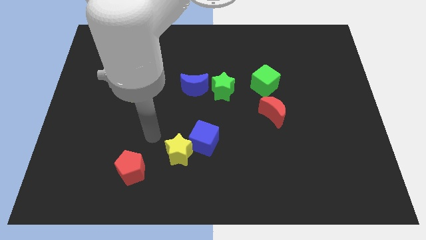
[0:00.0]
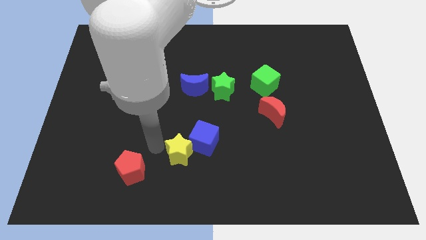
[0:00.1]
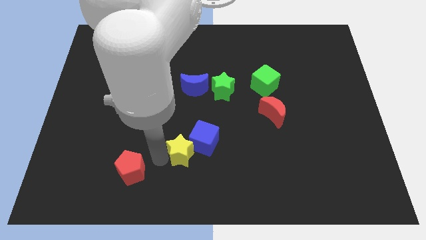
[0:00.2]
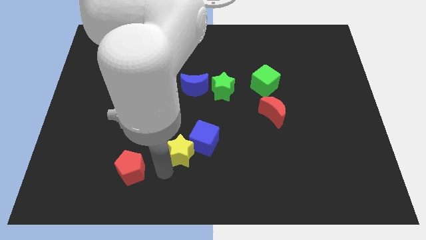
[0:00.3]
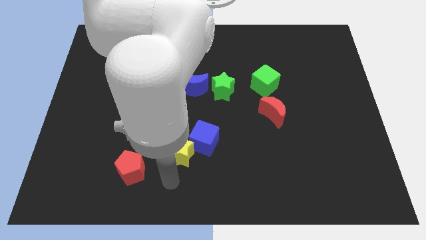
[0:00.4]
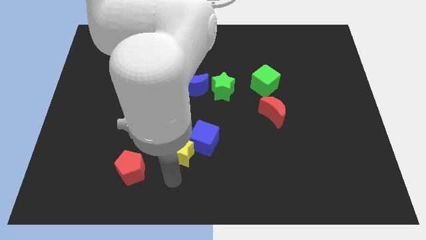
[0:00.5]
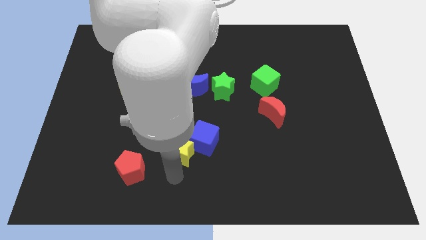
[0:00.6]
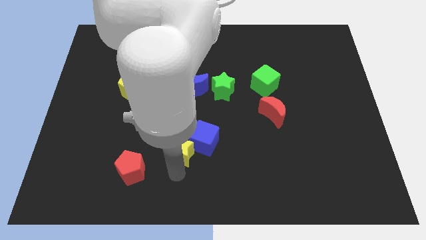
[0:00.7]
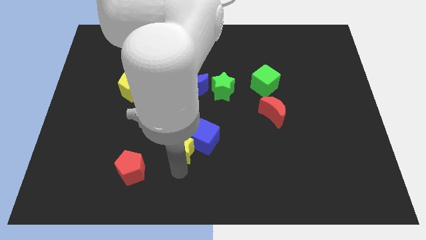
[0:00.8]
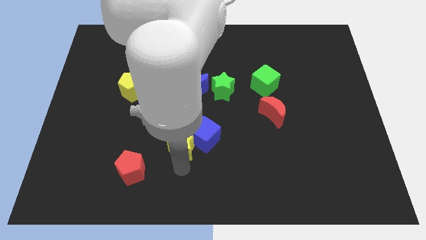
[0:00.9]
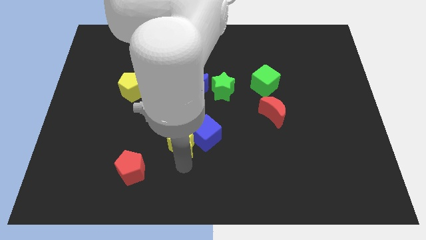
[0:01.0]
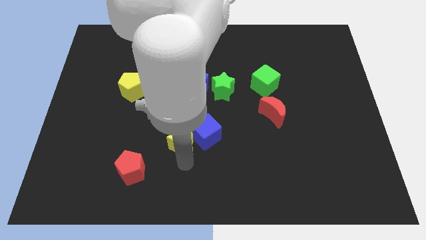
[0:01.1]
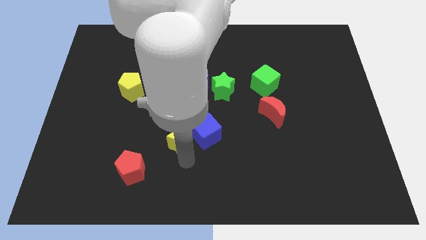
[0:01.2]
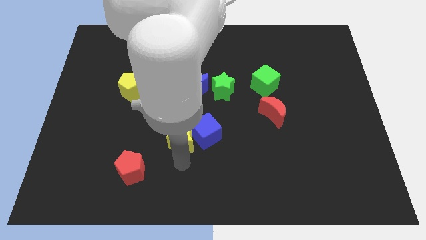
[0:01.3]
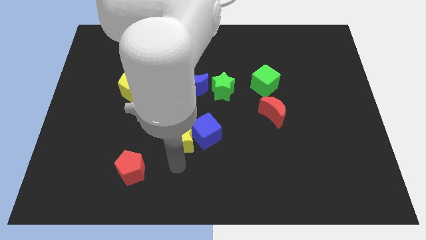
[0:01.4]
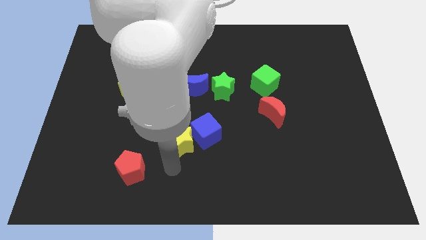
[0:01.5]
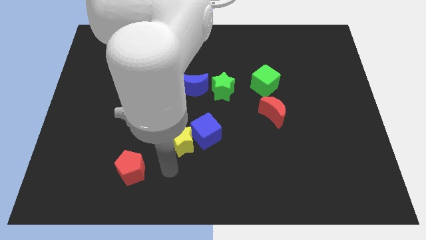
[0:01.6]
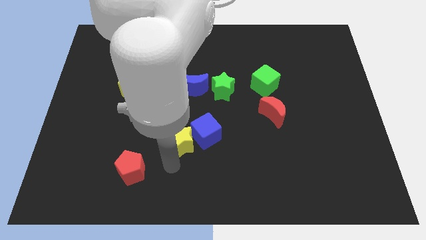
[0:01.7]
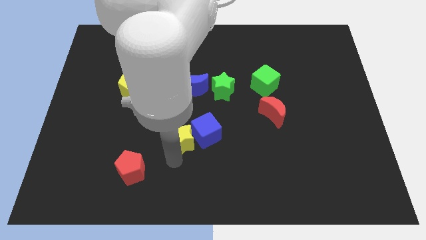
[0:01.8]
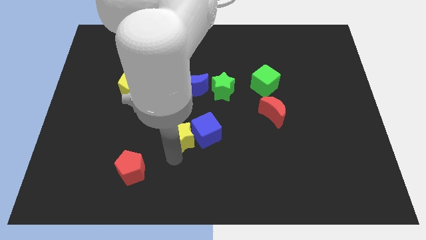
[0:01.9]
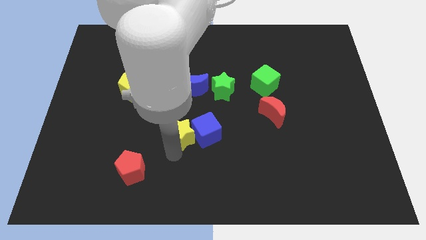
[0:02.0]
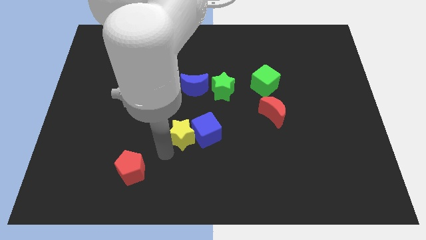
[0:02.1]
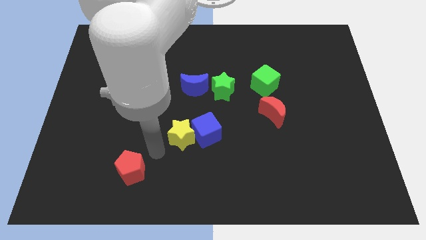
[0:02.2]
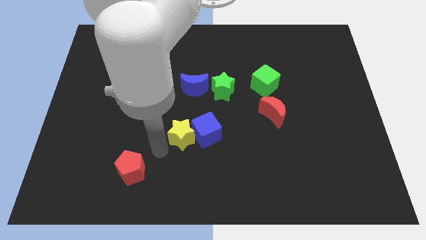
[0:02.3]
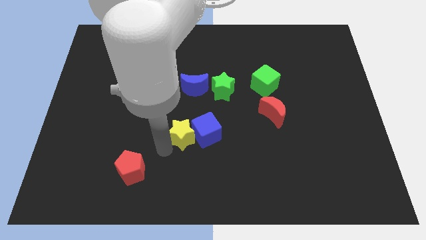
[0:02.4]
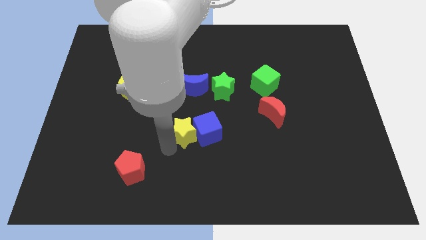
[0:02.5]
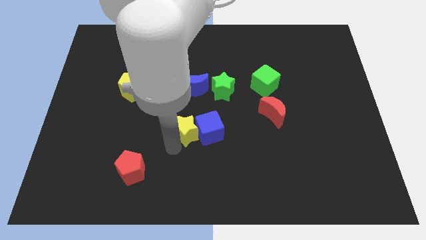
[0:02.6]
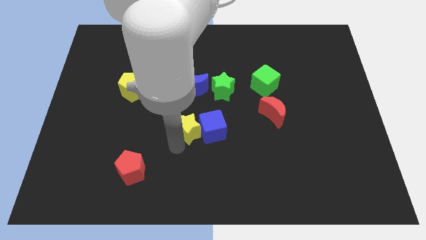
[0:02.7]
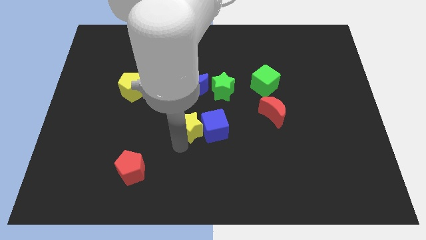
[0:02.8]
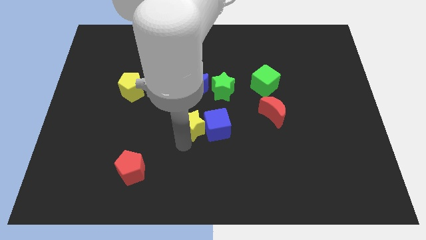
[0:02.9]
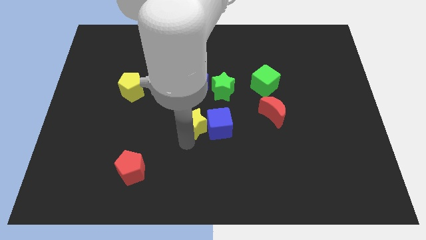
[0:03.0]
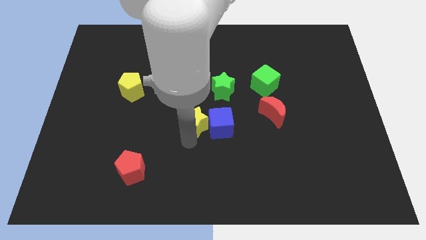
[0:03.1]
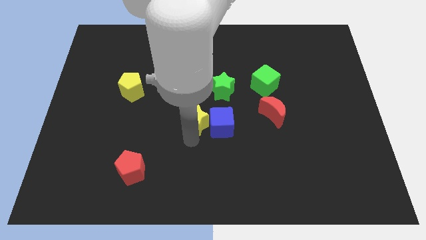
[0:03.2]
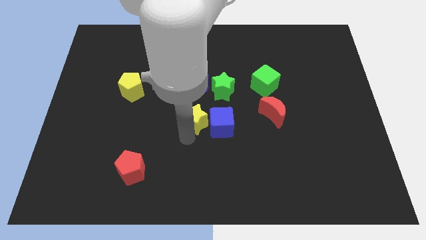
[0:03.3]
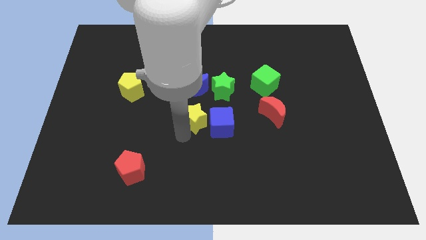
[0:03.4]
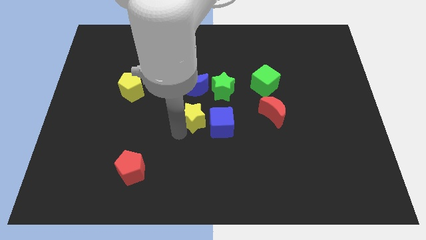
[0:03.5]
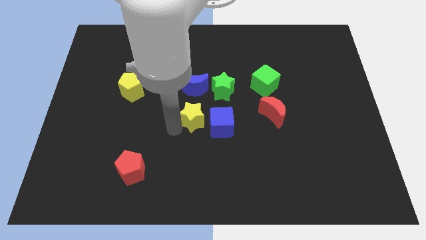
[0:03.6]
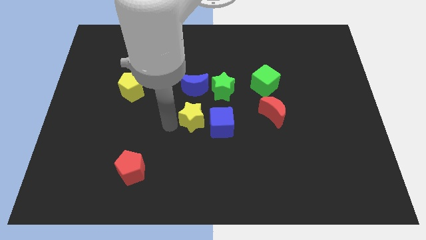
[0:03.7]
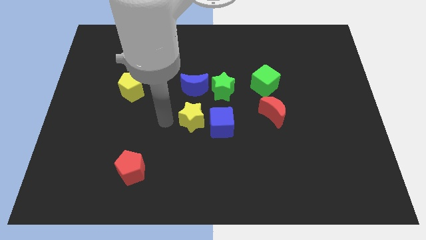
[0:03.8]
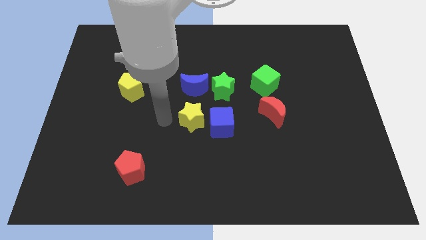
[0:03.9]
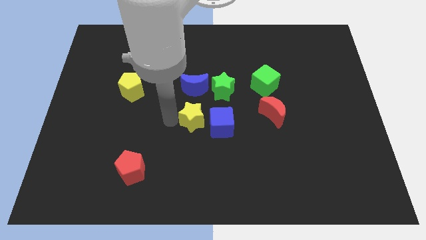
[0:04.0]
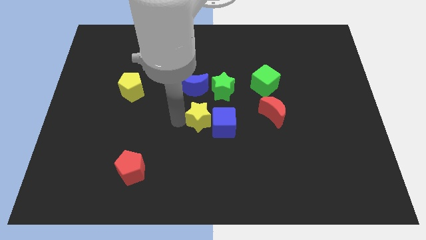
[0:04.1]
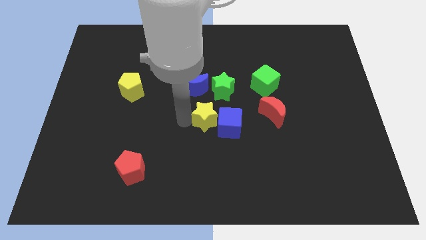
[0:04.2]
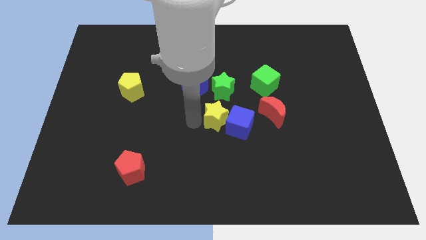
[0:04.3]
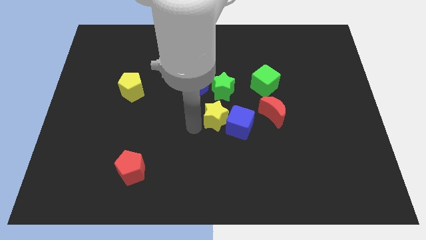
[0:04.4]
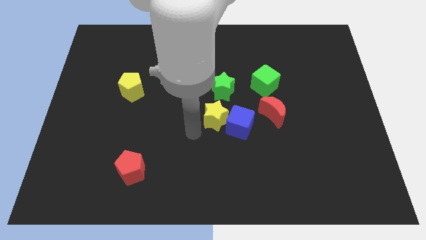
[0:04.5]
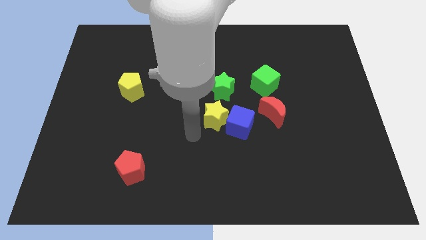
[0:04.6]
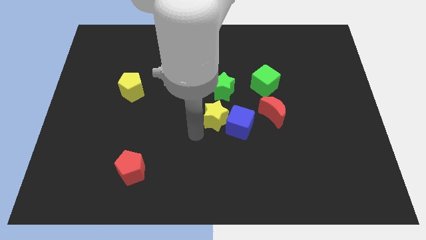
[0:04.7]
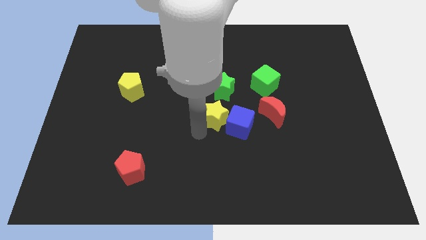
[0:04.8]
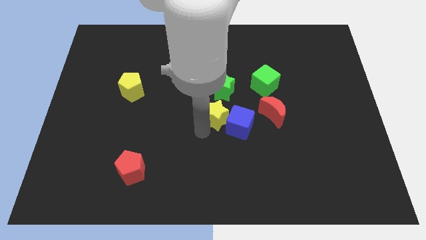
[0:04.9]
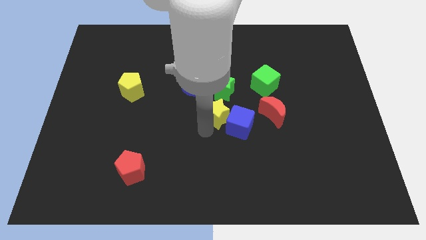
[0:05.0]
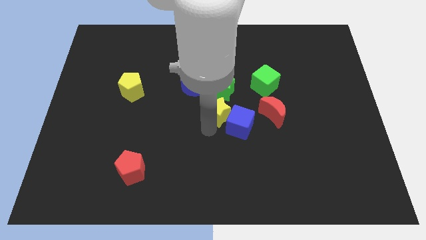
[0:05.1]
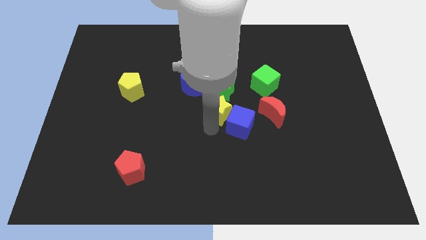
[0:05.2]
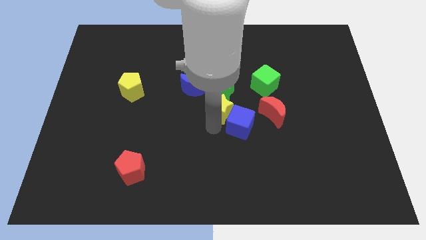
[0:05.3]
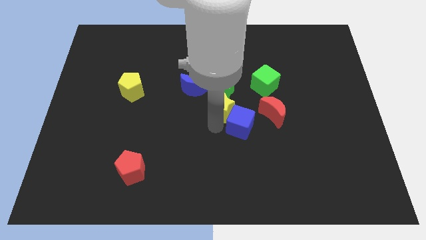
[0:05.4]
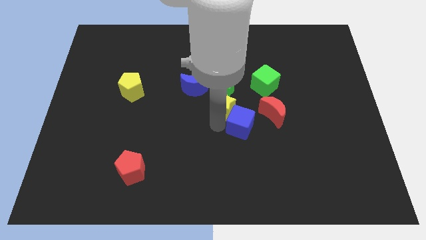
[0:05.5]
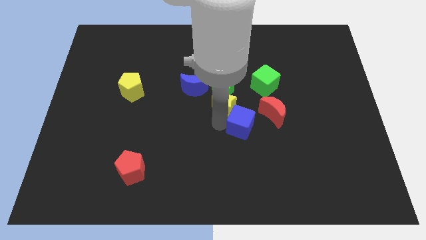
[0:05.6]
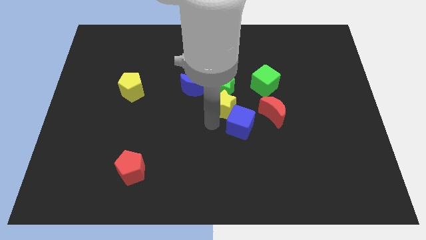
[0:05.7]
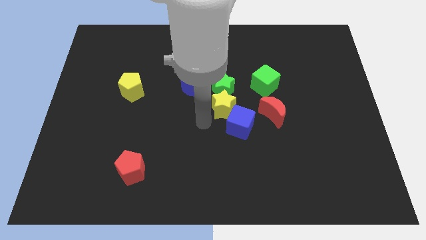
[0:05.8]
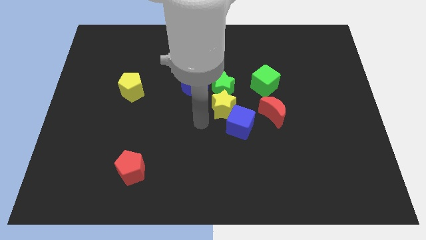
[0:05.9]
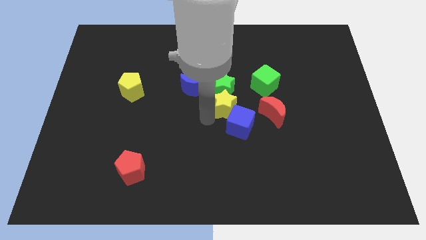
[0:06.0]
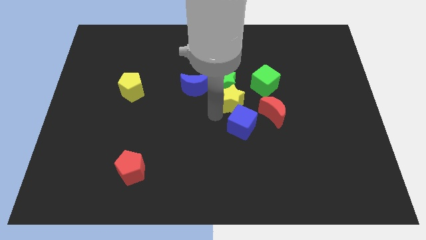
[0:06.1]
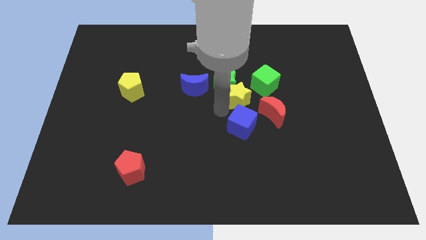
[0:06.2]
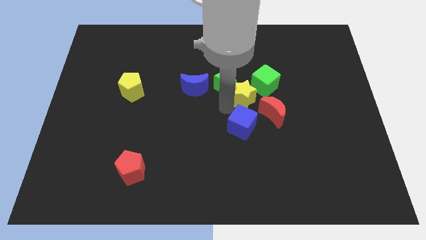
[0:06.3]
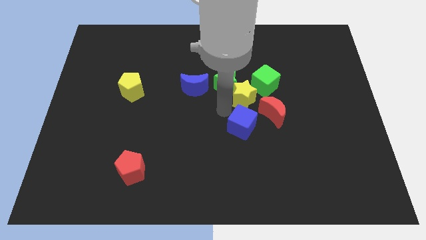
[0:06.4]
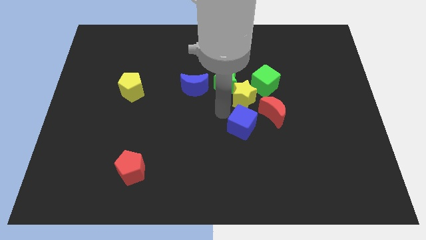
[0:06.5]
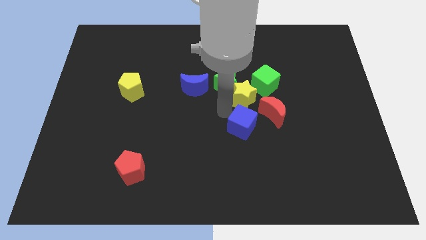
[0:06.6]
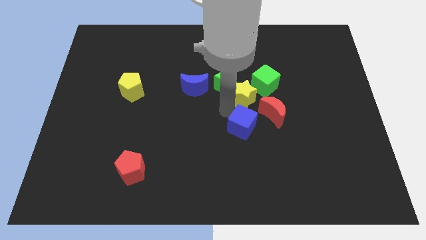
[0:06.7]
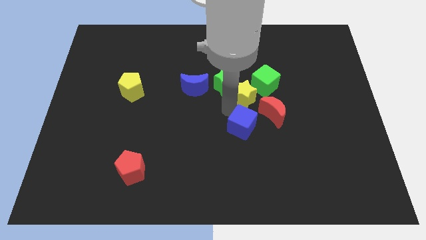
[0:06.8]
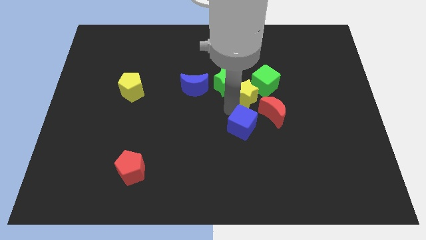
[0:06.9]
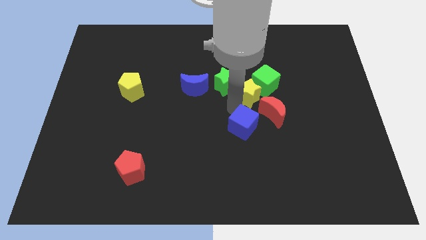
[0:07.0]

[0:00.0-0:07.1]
move the yellow star towards the green cube
